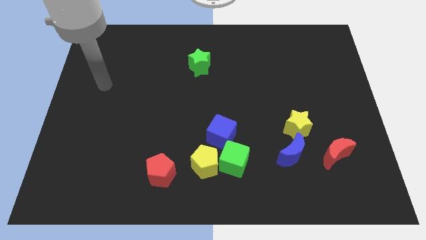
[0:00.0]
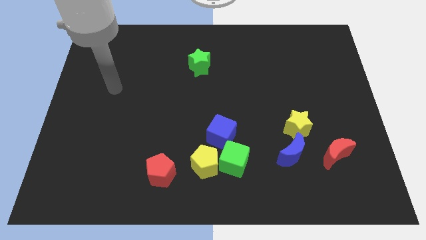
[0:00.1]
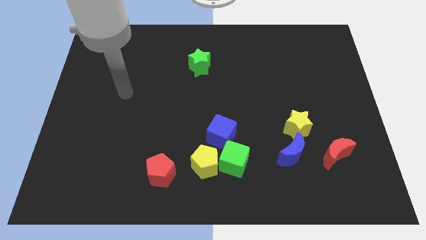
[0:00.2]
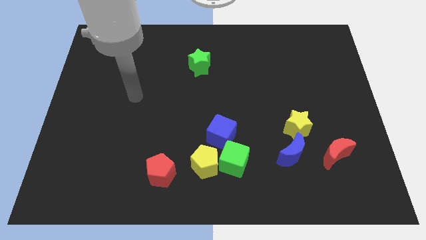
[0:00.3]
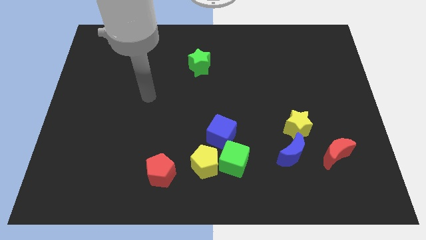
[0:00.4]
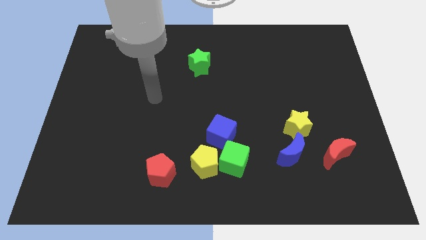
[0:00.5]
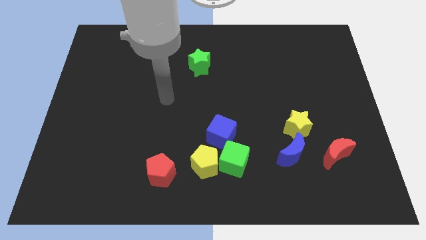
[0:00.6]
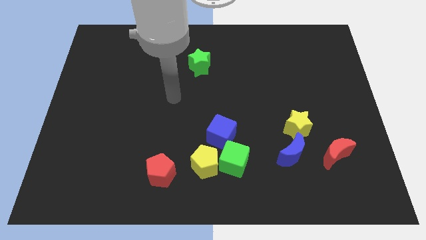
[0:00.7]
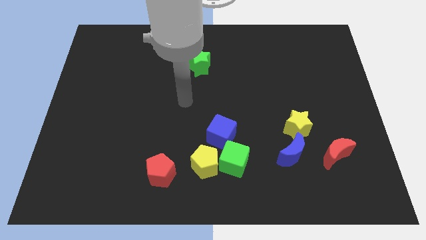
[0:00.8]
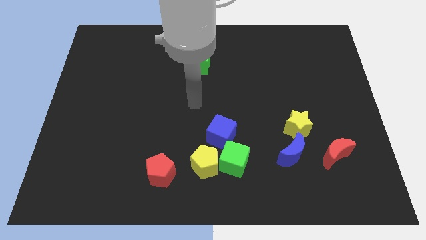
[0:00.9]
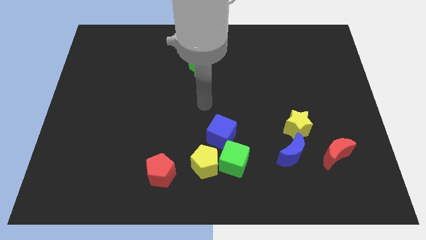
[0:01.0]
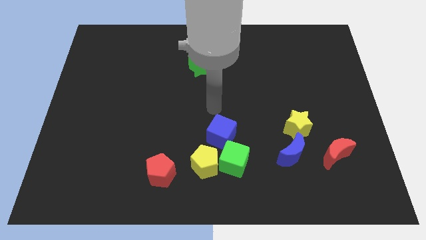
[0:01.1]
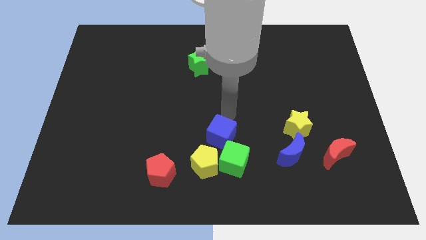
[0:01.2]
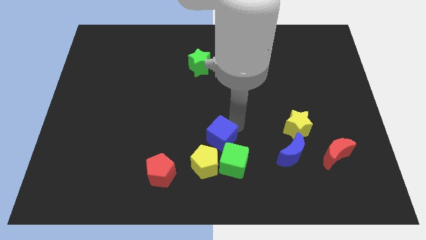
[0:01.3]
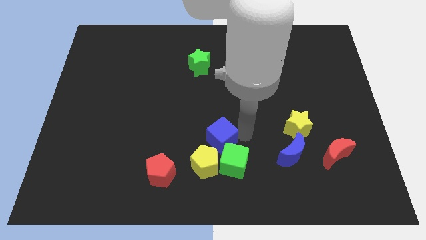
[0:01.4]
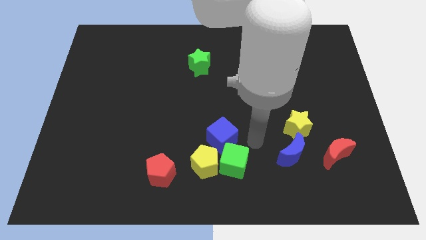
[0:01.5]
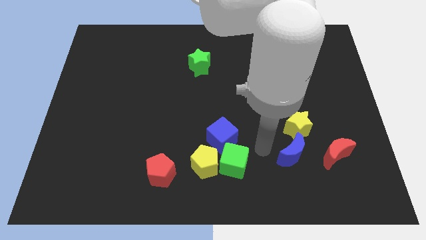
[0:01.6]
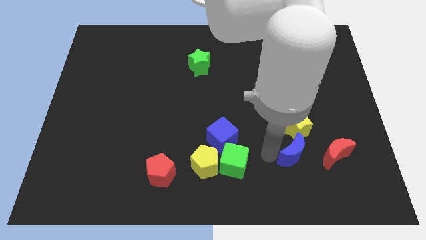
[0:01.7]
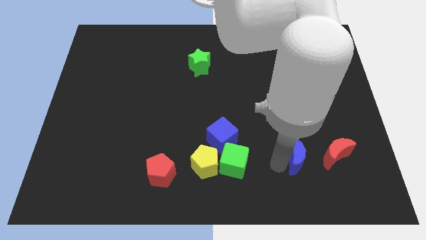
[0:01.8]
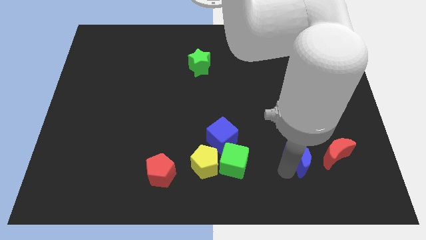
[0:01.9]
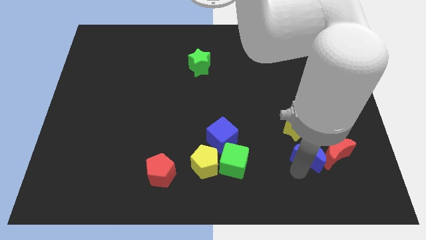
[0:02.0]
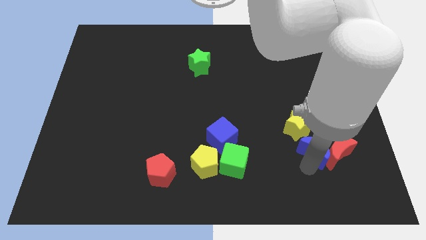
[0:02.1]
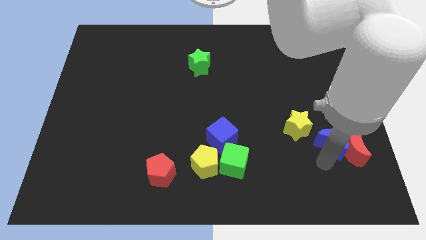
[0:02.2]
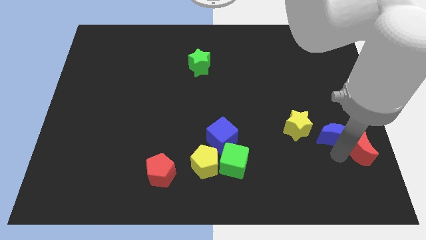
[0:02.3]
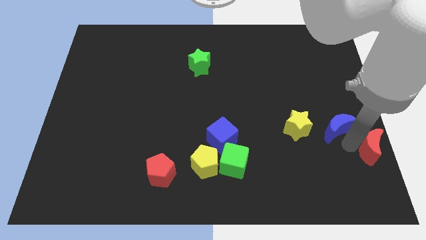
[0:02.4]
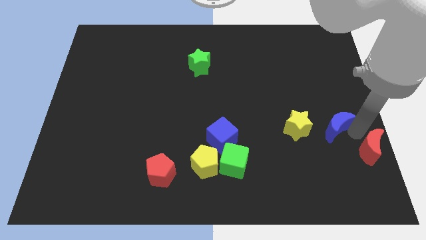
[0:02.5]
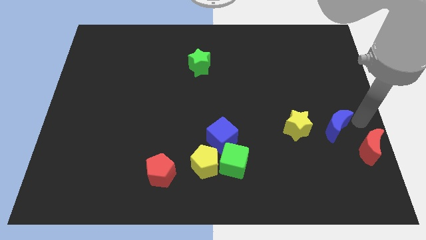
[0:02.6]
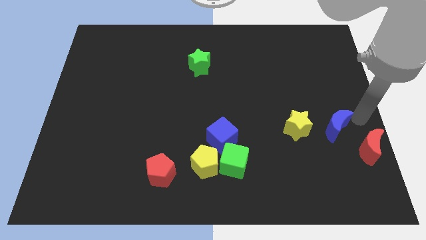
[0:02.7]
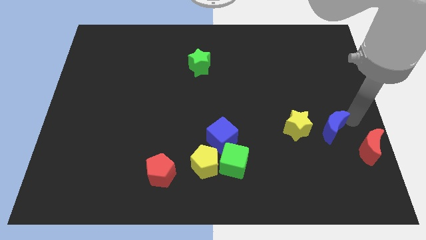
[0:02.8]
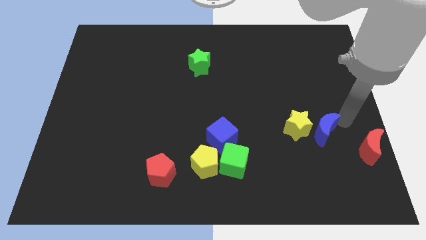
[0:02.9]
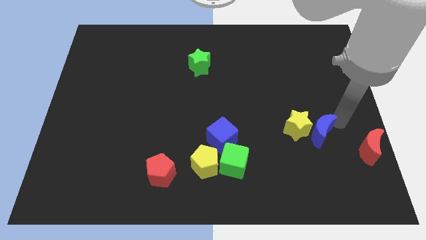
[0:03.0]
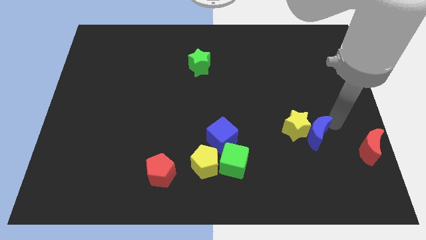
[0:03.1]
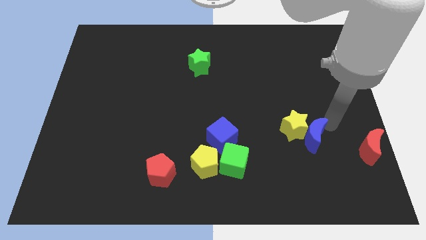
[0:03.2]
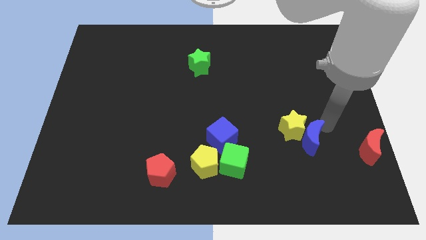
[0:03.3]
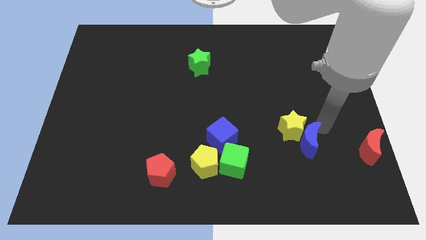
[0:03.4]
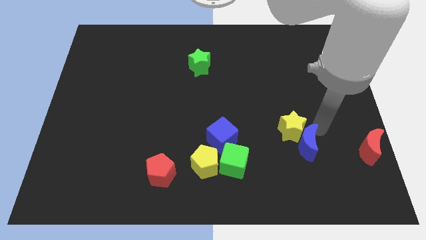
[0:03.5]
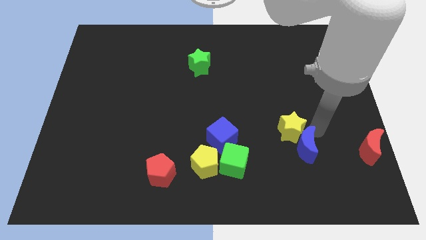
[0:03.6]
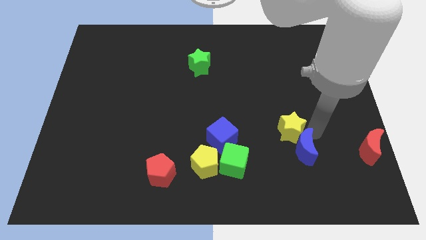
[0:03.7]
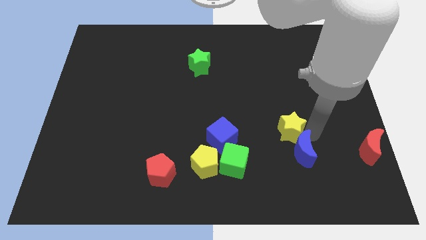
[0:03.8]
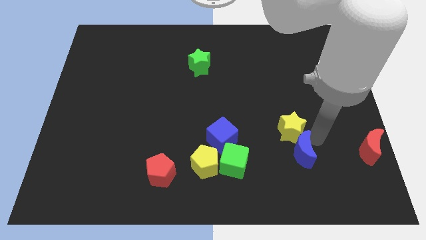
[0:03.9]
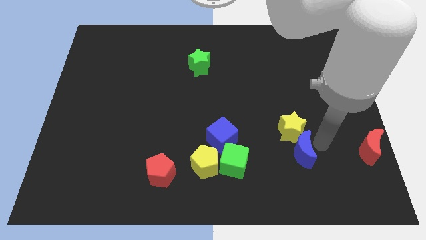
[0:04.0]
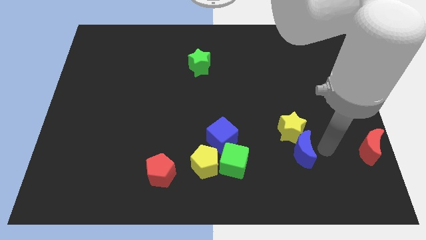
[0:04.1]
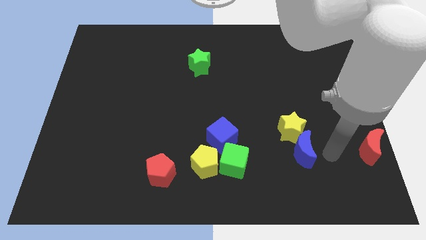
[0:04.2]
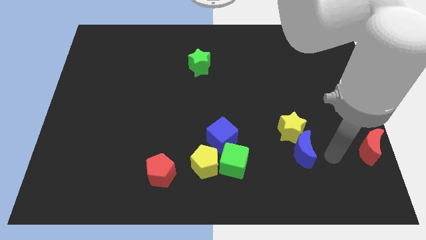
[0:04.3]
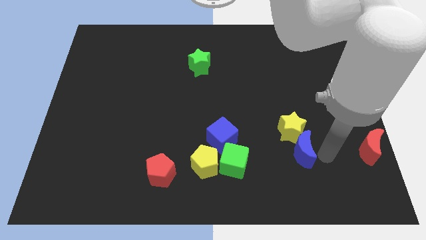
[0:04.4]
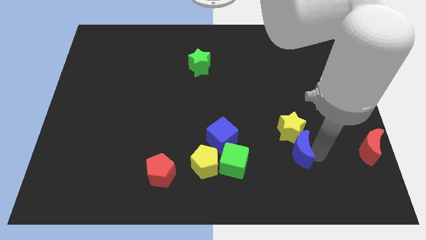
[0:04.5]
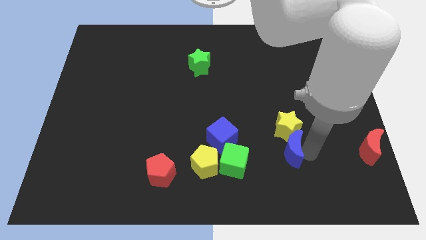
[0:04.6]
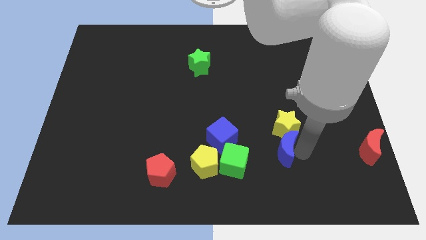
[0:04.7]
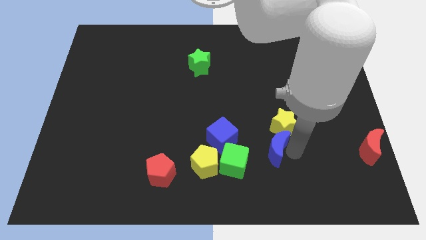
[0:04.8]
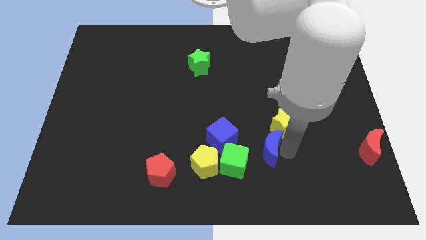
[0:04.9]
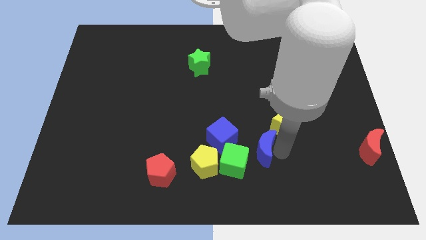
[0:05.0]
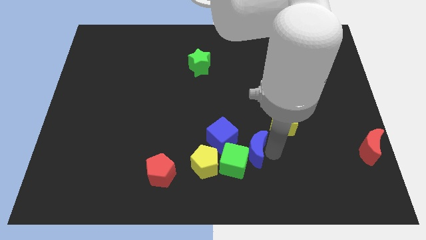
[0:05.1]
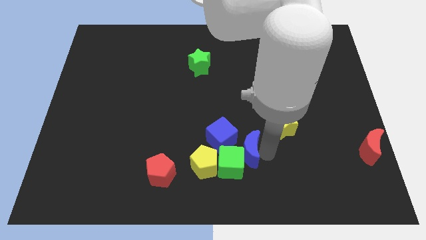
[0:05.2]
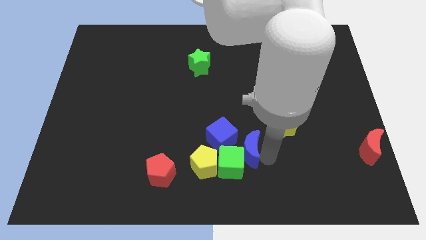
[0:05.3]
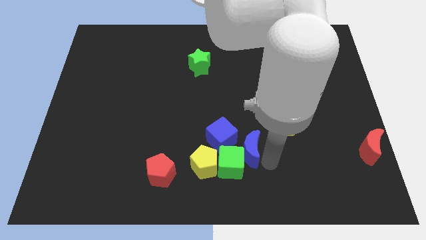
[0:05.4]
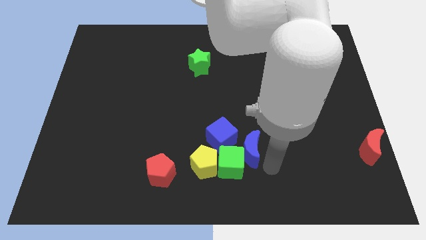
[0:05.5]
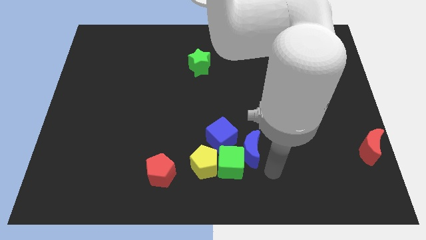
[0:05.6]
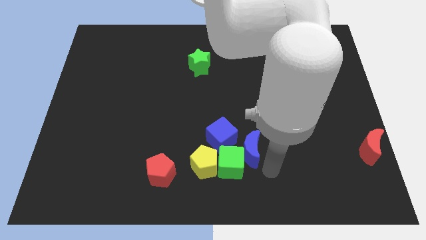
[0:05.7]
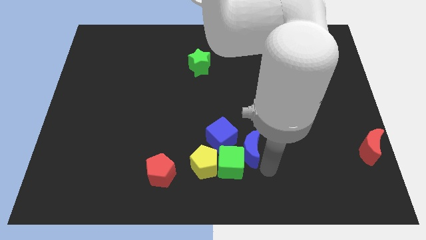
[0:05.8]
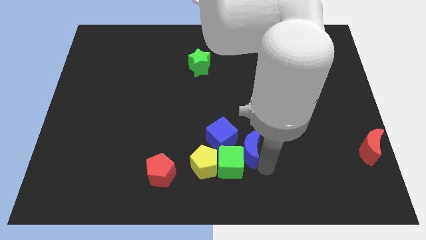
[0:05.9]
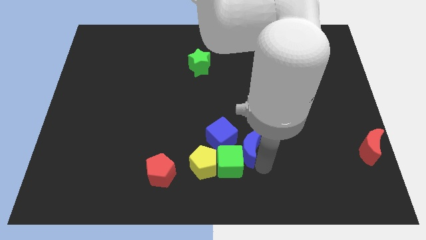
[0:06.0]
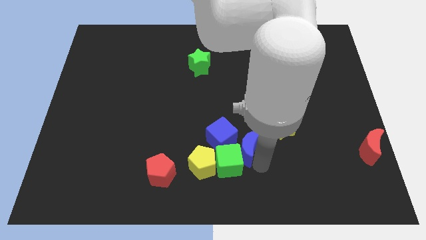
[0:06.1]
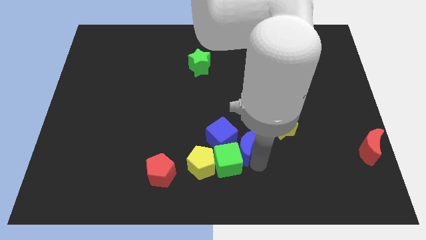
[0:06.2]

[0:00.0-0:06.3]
slide the blue moon to the blue cube

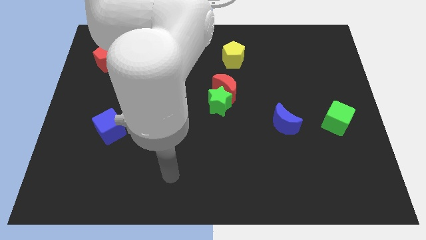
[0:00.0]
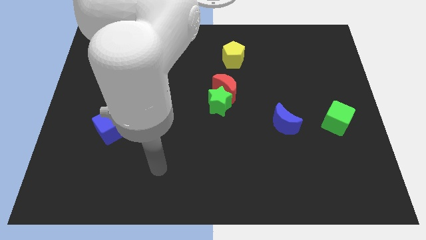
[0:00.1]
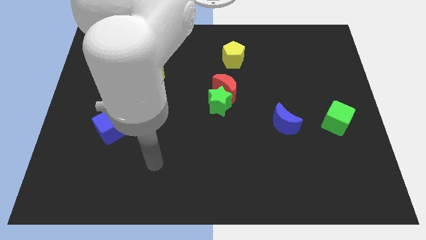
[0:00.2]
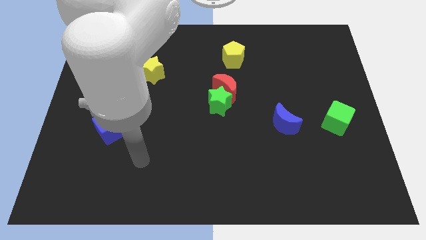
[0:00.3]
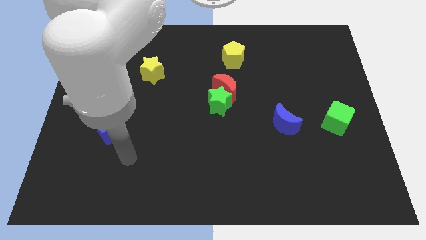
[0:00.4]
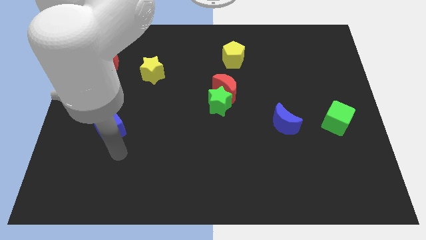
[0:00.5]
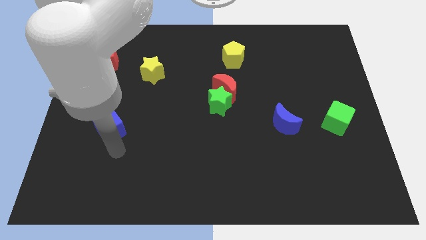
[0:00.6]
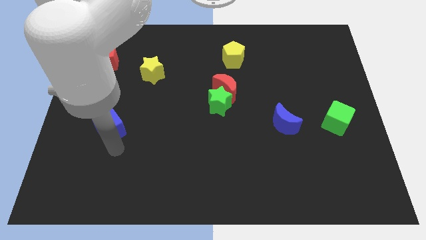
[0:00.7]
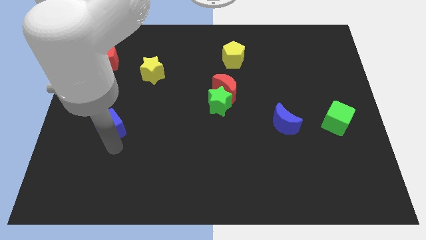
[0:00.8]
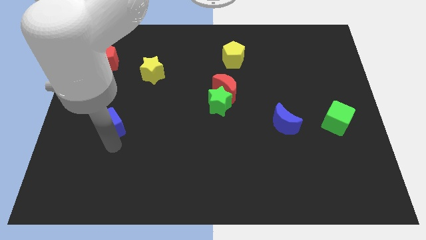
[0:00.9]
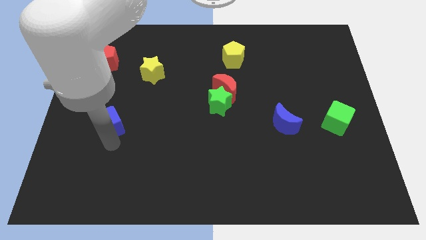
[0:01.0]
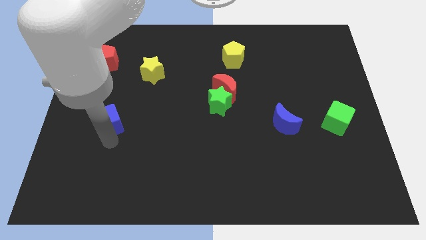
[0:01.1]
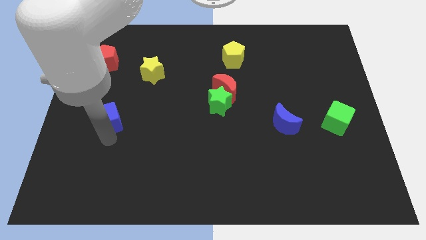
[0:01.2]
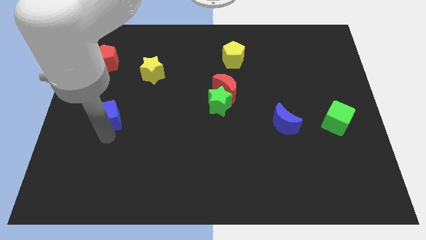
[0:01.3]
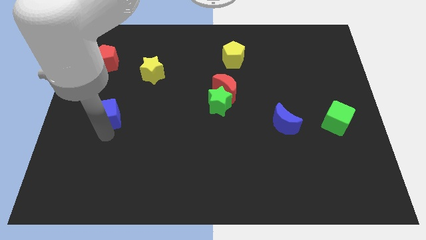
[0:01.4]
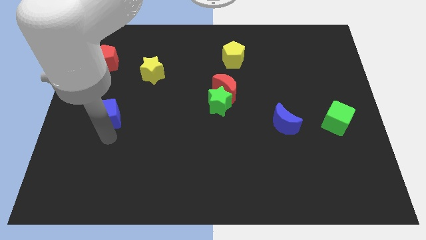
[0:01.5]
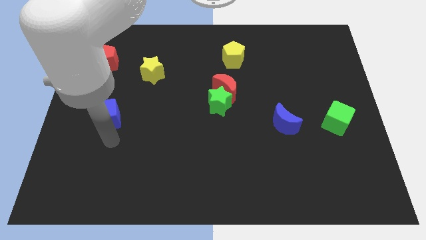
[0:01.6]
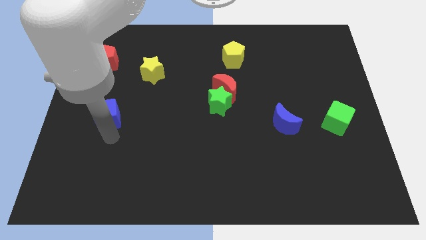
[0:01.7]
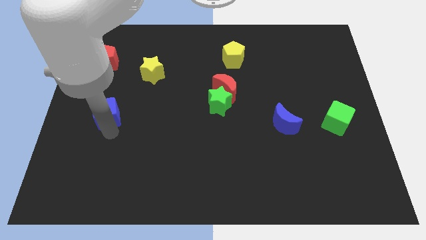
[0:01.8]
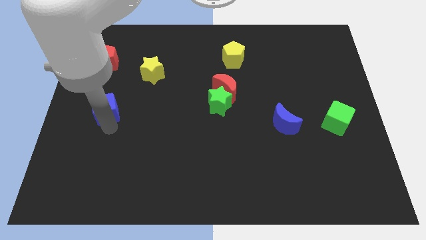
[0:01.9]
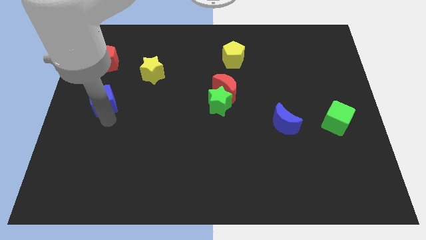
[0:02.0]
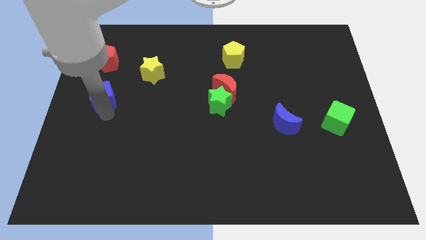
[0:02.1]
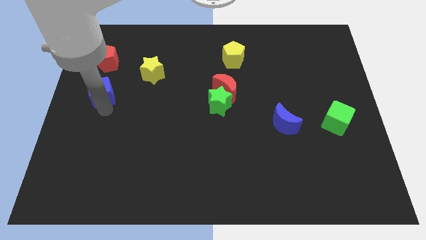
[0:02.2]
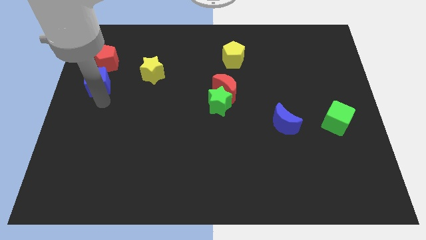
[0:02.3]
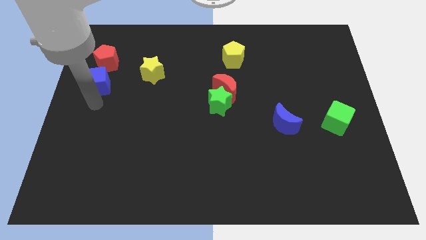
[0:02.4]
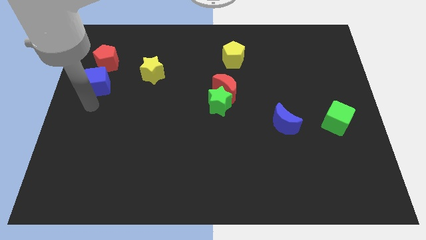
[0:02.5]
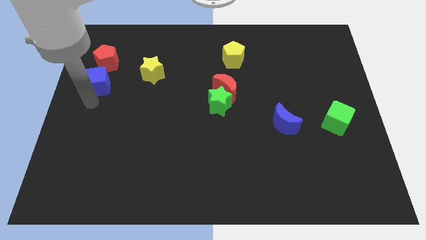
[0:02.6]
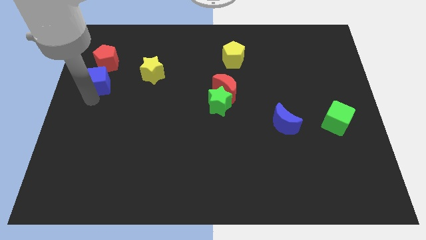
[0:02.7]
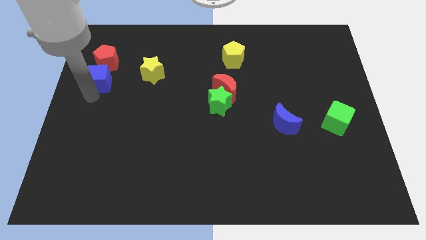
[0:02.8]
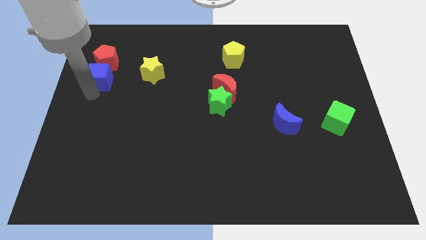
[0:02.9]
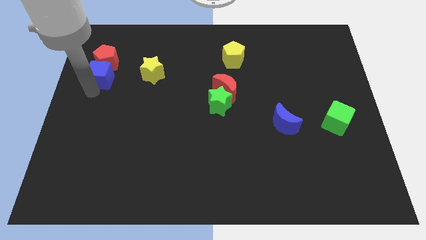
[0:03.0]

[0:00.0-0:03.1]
move the blue cube towards the red pentagon
